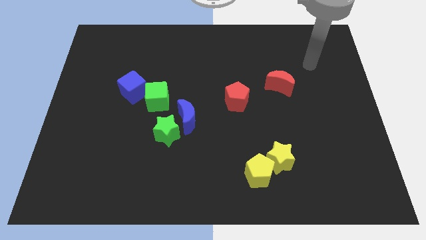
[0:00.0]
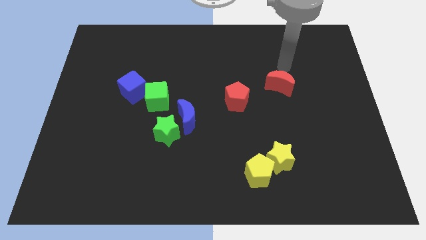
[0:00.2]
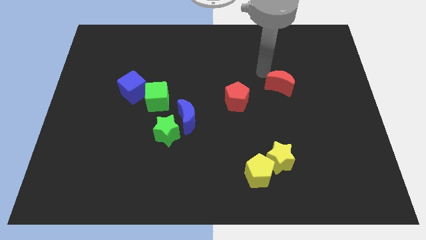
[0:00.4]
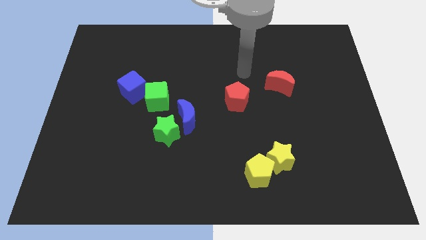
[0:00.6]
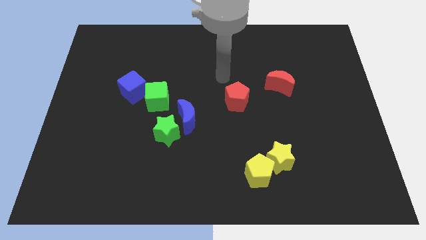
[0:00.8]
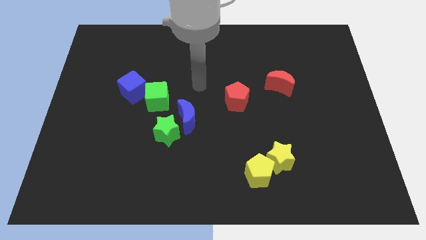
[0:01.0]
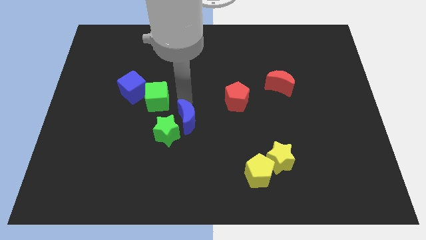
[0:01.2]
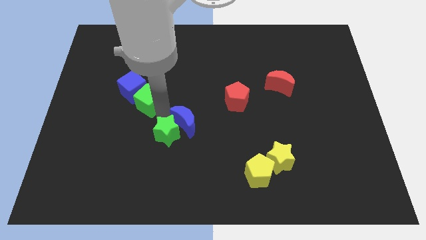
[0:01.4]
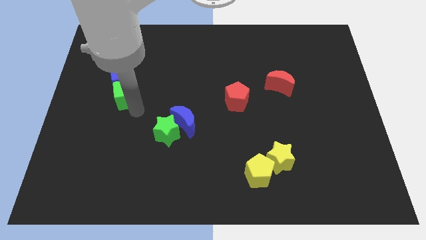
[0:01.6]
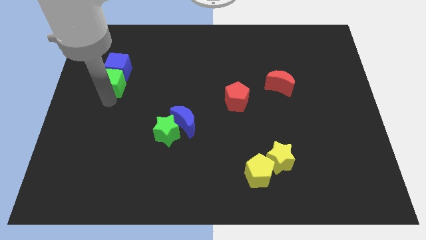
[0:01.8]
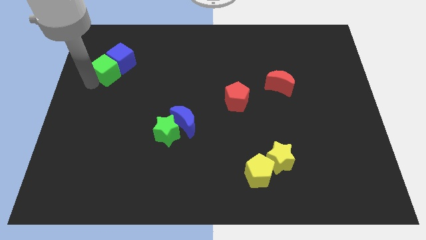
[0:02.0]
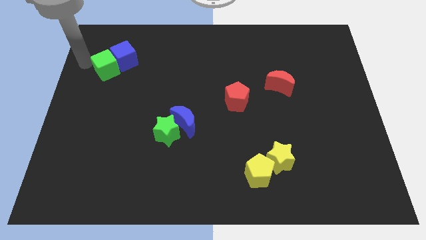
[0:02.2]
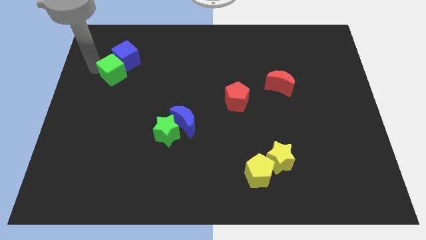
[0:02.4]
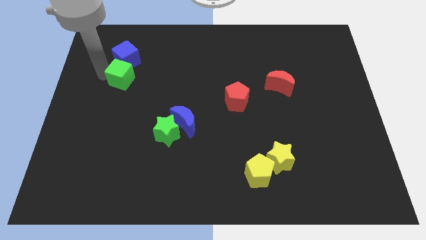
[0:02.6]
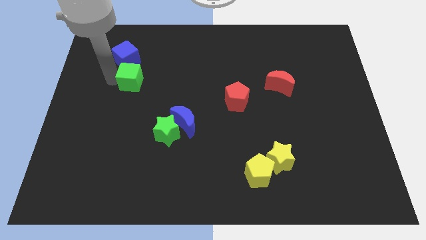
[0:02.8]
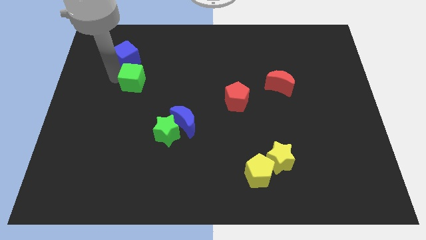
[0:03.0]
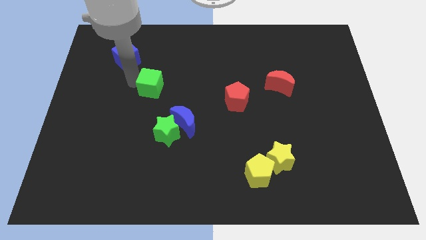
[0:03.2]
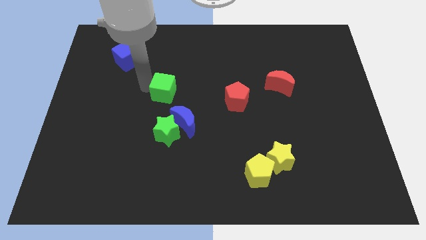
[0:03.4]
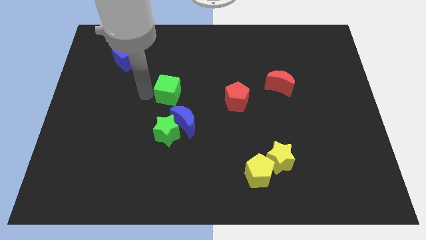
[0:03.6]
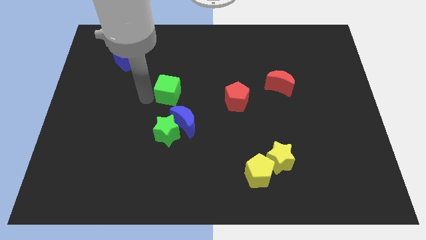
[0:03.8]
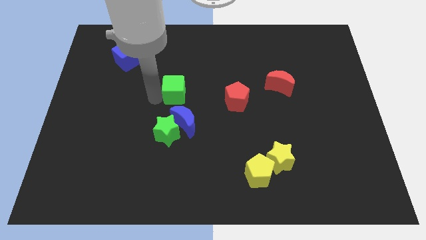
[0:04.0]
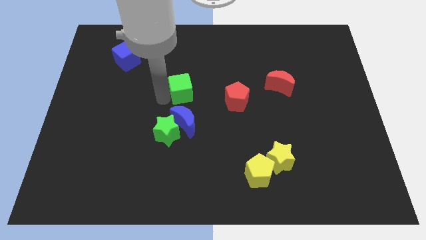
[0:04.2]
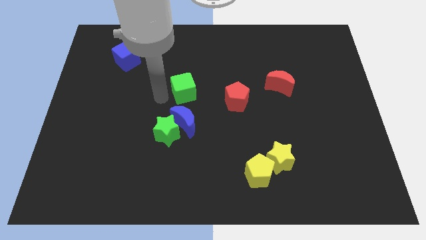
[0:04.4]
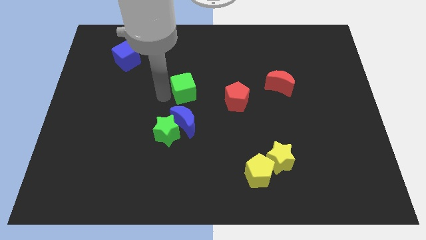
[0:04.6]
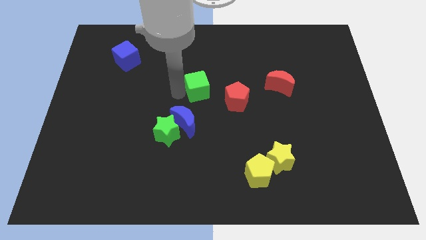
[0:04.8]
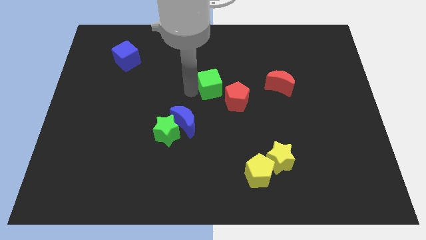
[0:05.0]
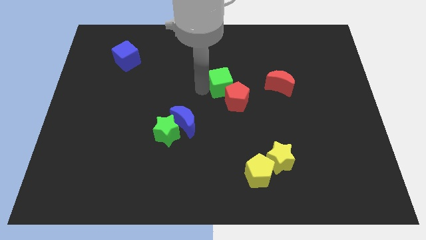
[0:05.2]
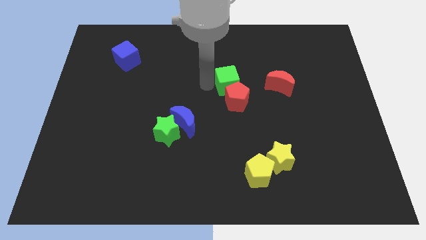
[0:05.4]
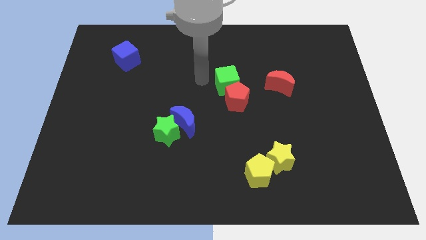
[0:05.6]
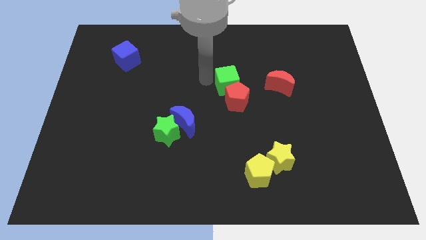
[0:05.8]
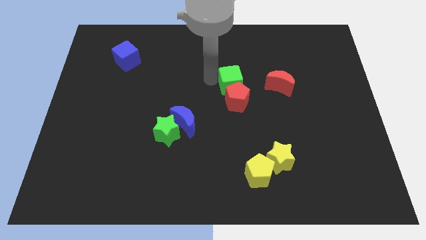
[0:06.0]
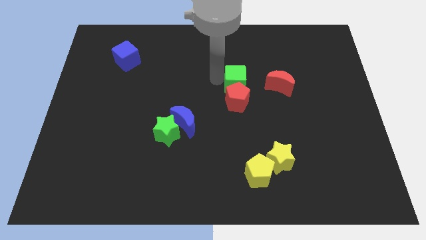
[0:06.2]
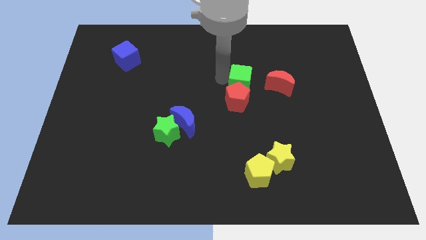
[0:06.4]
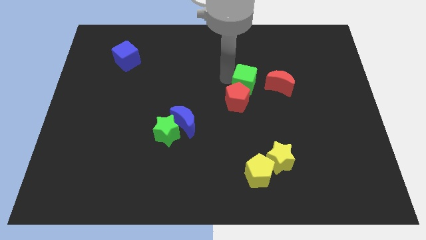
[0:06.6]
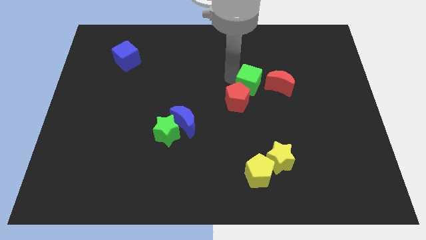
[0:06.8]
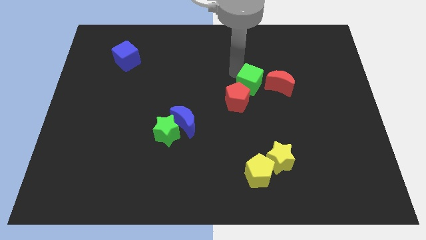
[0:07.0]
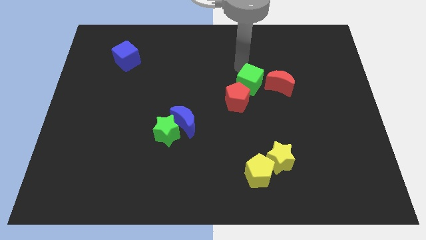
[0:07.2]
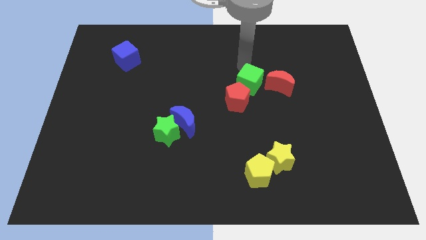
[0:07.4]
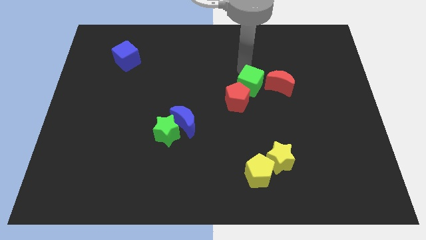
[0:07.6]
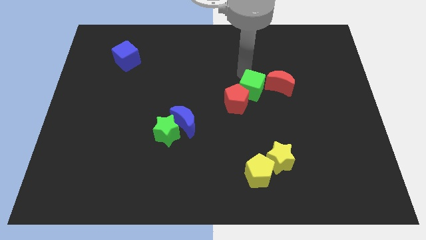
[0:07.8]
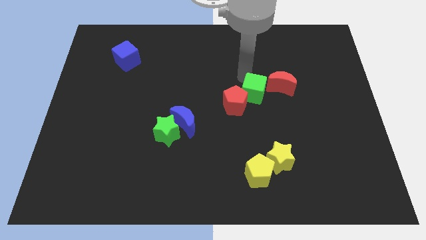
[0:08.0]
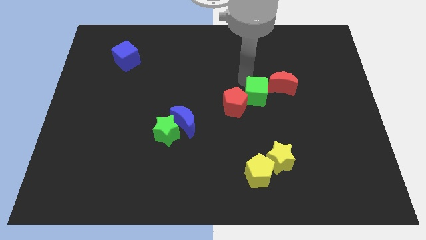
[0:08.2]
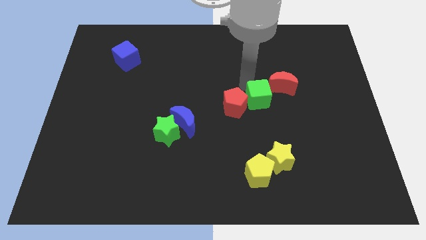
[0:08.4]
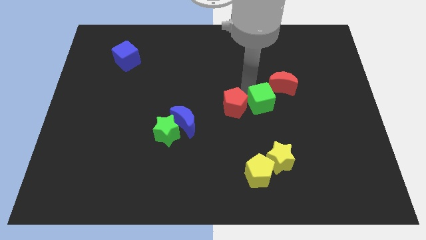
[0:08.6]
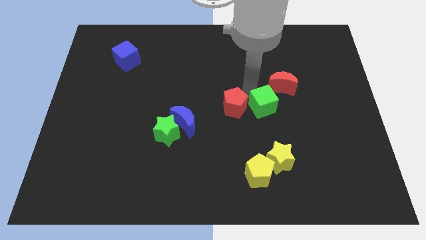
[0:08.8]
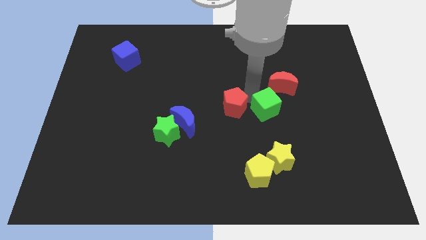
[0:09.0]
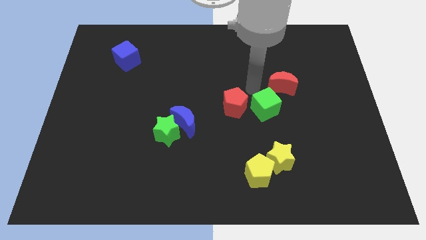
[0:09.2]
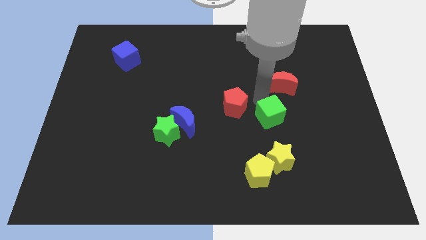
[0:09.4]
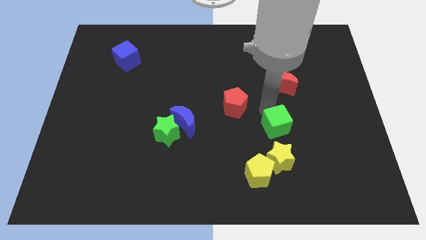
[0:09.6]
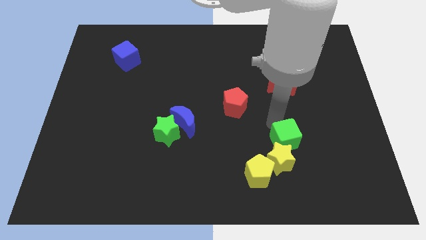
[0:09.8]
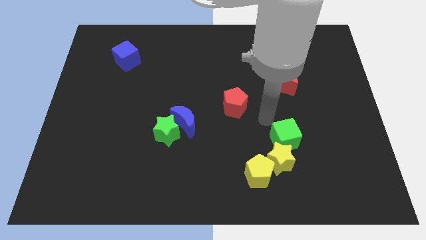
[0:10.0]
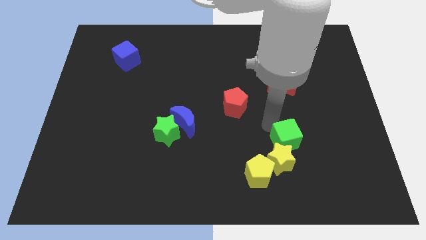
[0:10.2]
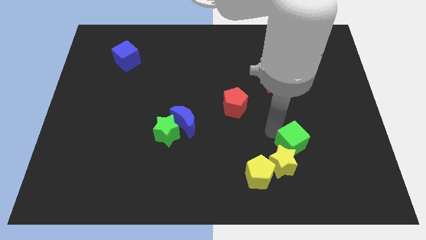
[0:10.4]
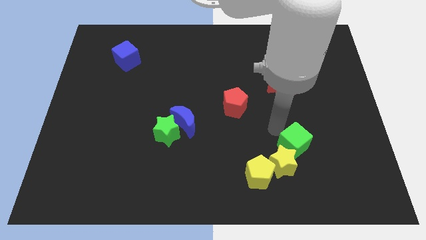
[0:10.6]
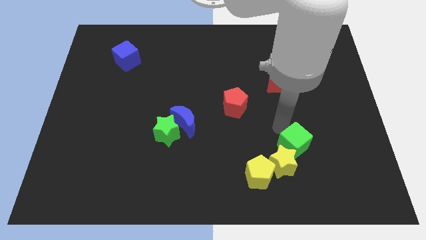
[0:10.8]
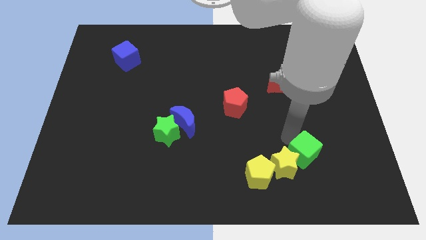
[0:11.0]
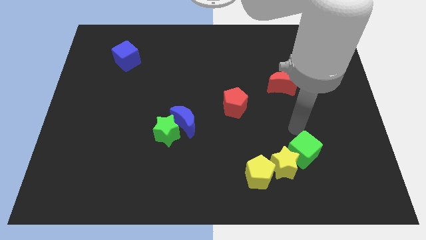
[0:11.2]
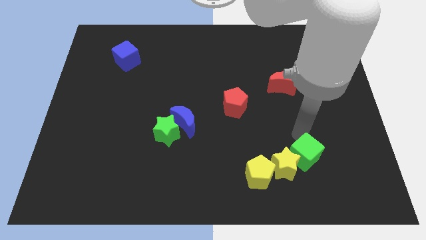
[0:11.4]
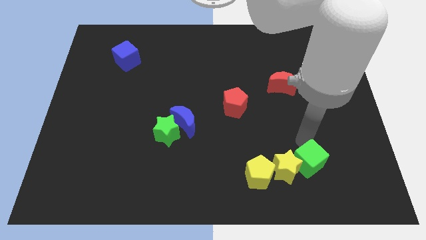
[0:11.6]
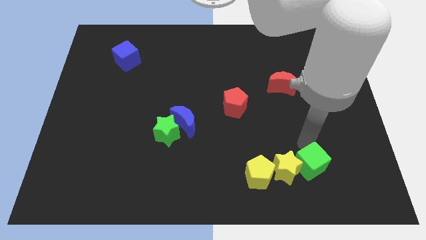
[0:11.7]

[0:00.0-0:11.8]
put the green cube to the bottom right side of the yellow star

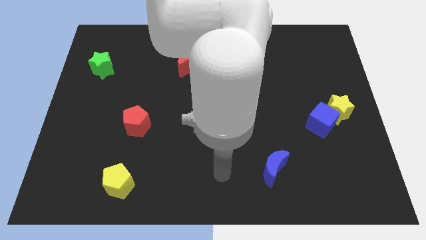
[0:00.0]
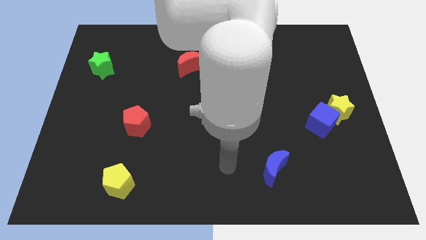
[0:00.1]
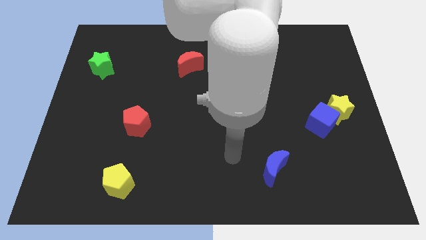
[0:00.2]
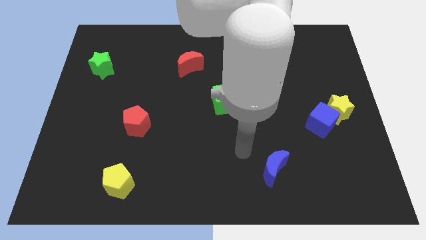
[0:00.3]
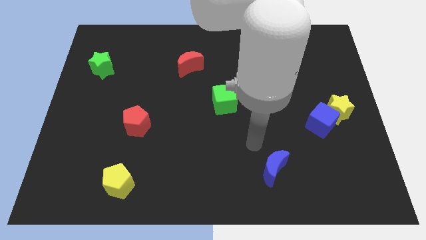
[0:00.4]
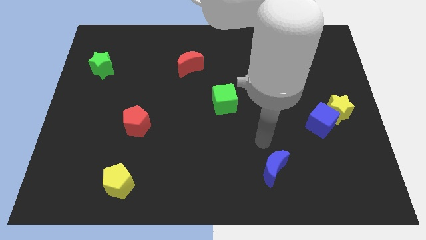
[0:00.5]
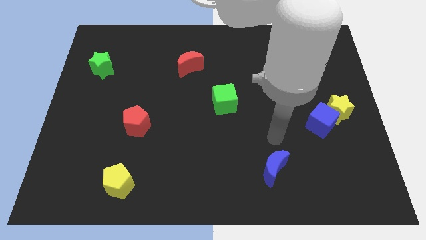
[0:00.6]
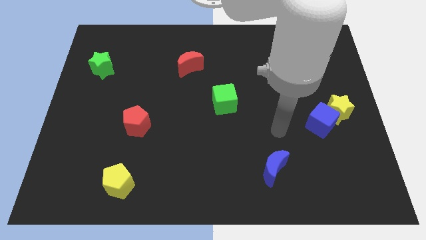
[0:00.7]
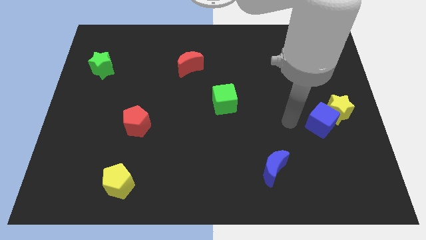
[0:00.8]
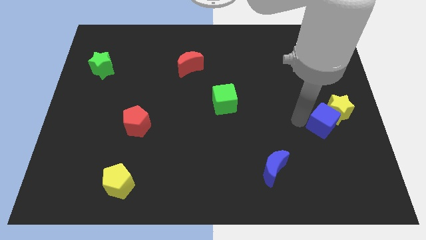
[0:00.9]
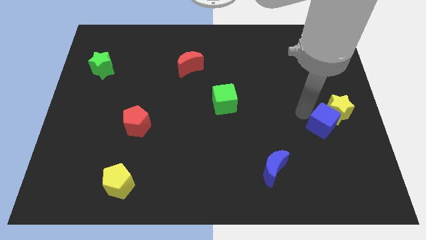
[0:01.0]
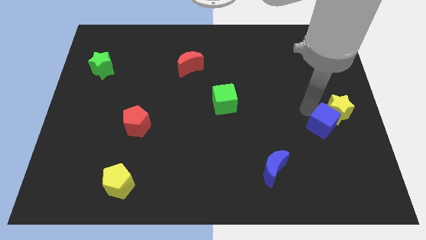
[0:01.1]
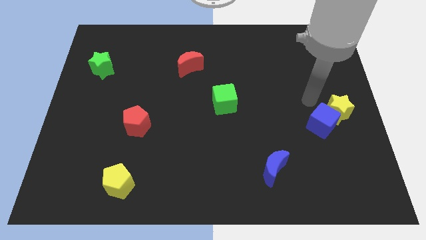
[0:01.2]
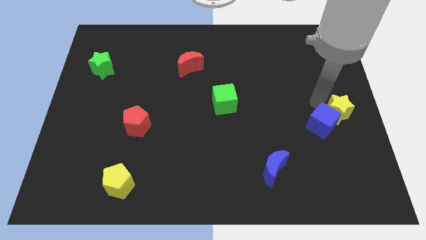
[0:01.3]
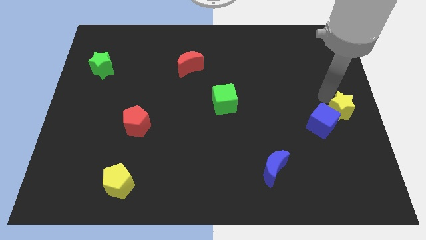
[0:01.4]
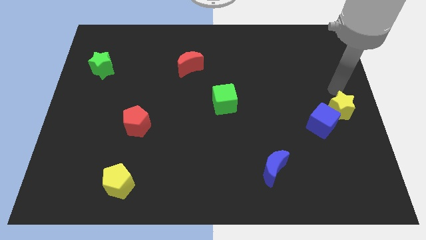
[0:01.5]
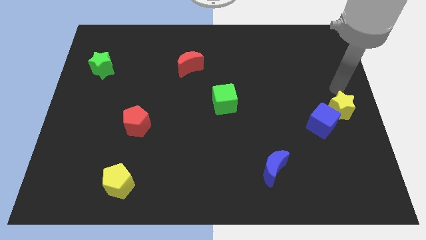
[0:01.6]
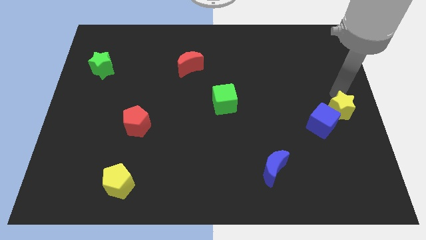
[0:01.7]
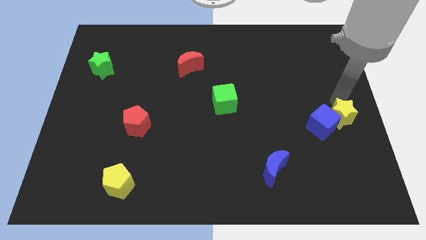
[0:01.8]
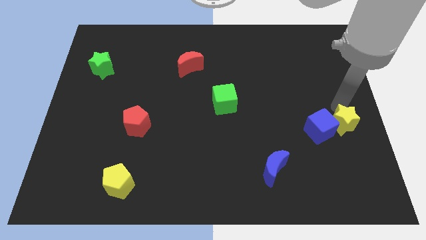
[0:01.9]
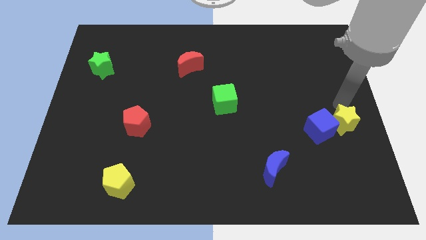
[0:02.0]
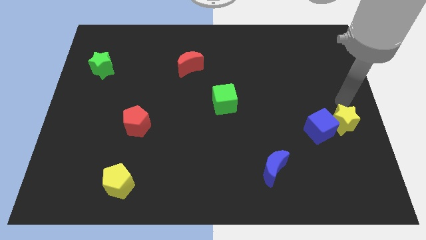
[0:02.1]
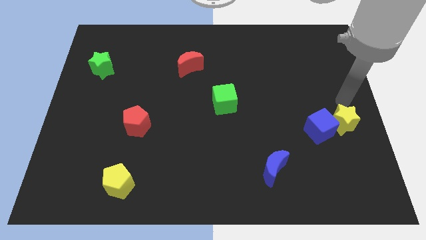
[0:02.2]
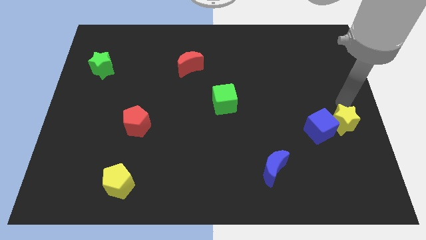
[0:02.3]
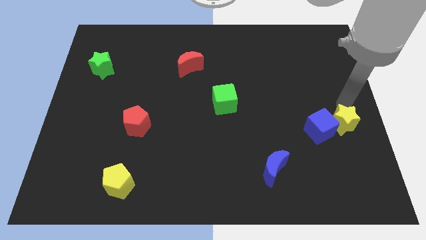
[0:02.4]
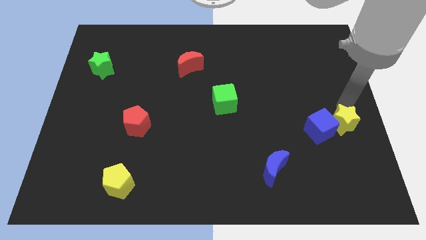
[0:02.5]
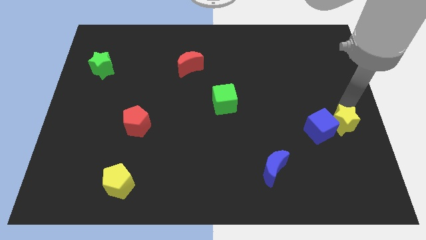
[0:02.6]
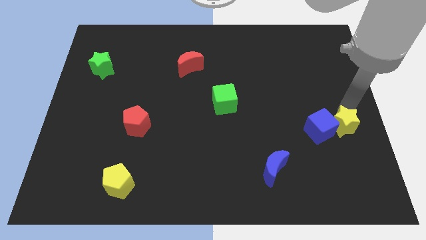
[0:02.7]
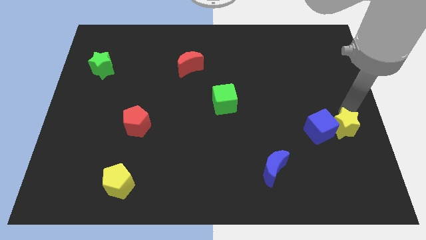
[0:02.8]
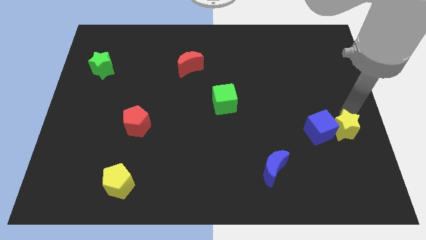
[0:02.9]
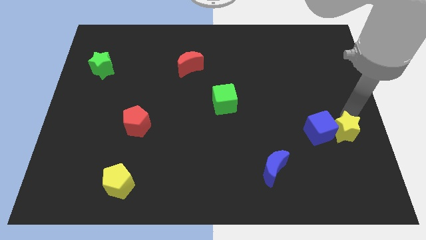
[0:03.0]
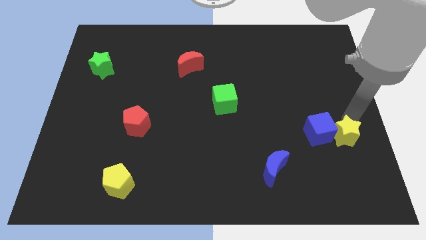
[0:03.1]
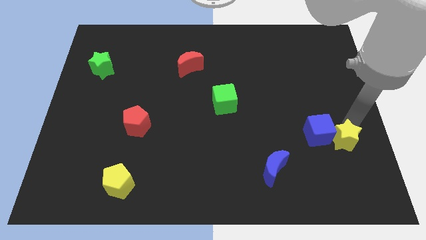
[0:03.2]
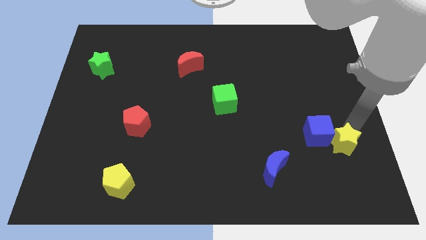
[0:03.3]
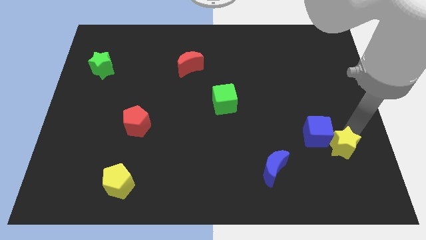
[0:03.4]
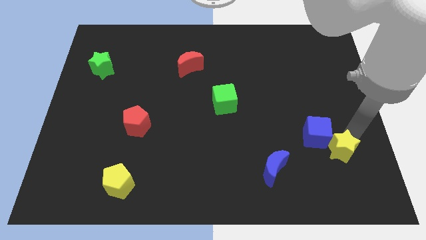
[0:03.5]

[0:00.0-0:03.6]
move the yellow star below the blue cube
